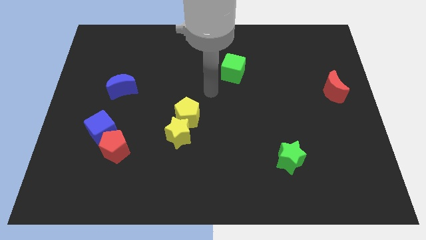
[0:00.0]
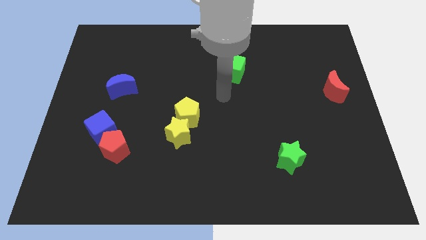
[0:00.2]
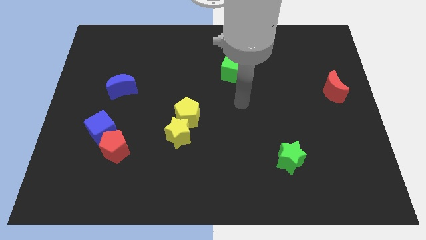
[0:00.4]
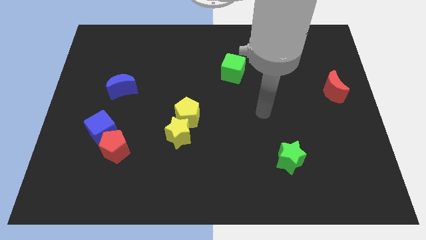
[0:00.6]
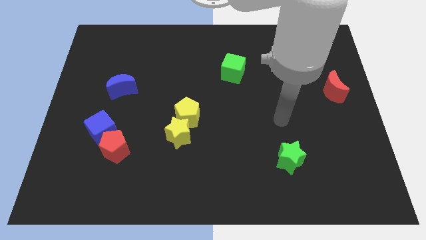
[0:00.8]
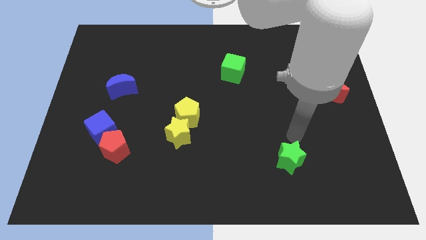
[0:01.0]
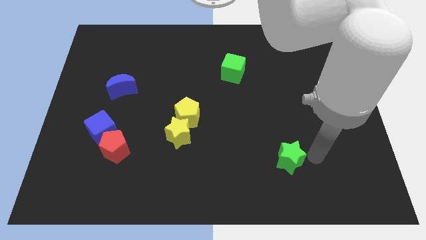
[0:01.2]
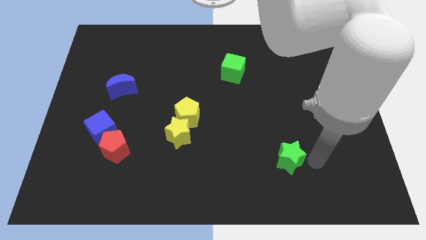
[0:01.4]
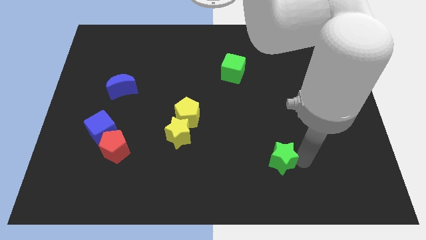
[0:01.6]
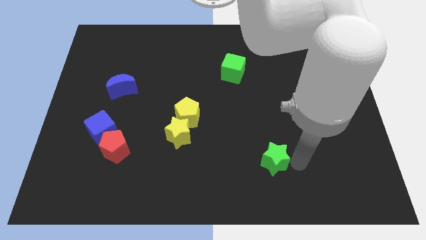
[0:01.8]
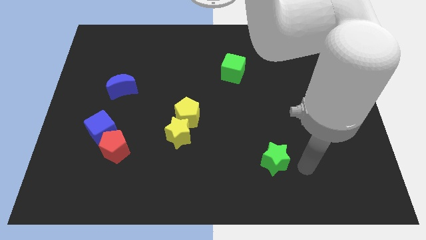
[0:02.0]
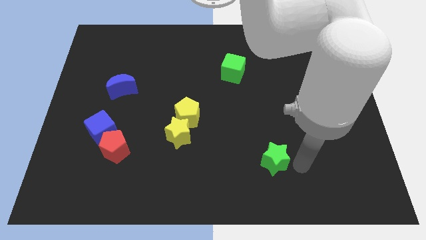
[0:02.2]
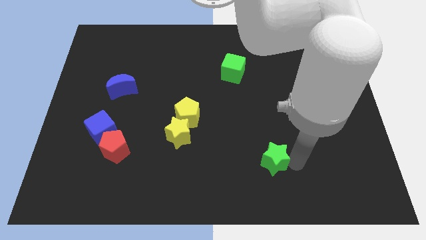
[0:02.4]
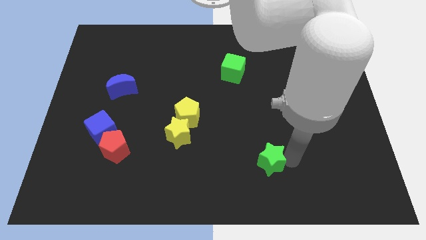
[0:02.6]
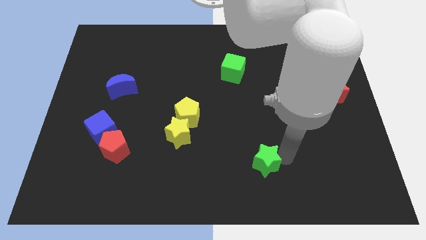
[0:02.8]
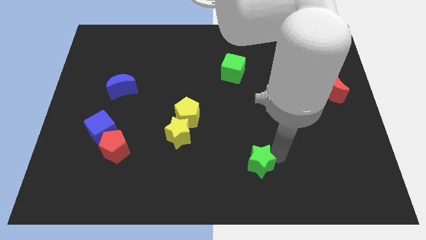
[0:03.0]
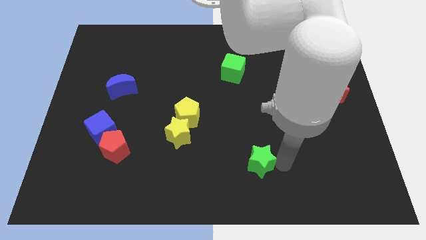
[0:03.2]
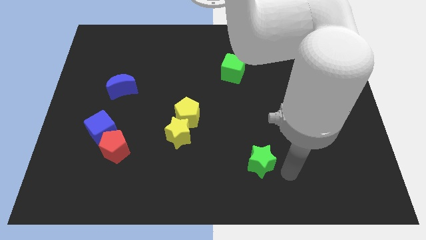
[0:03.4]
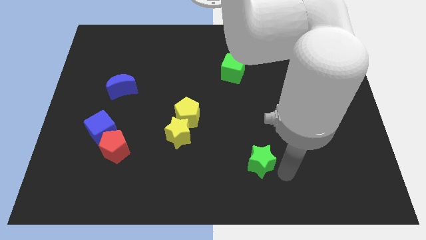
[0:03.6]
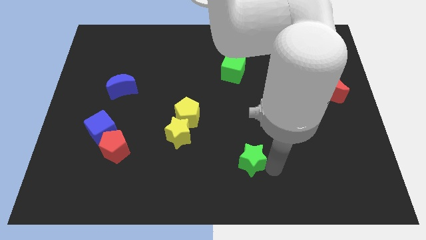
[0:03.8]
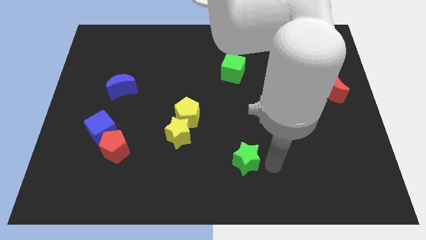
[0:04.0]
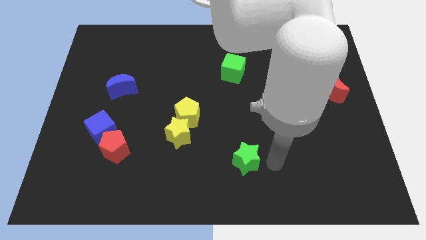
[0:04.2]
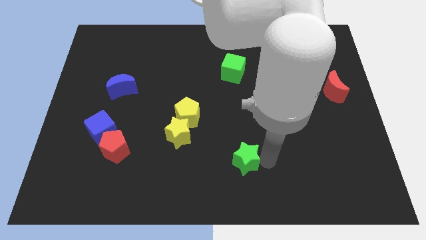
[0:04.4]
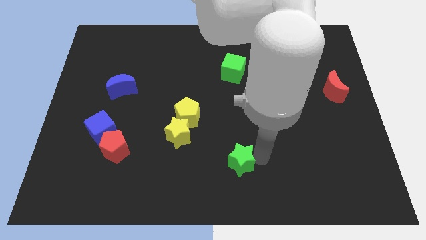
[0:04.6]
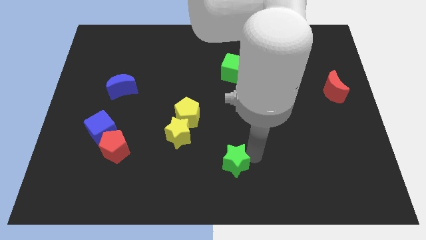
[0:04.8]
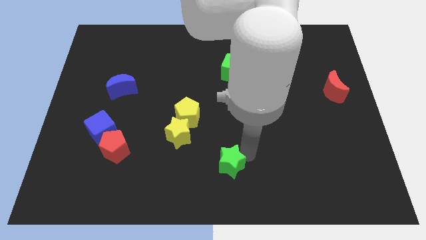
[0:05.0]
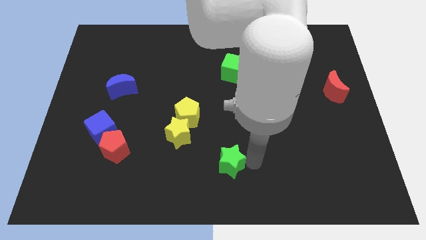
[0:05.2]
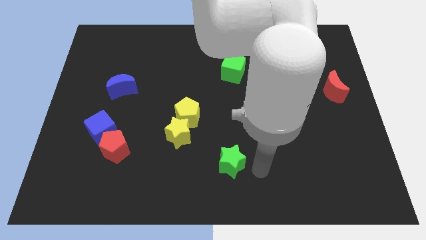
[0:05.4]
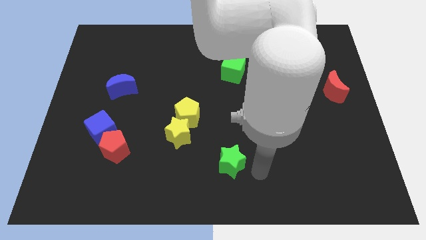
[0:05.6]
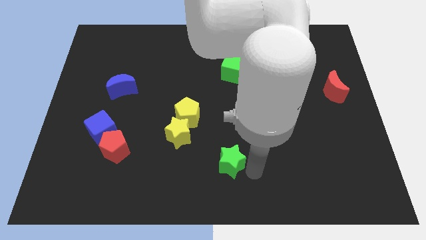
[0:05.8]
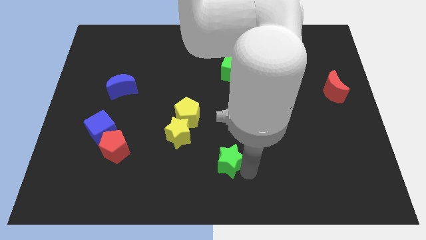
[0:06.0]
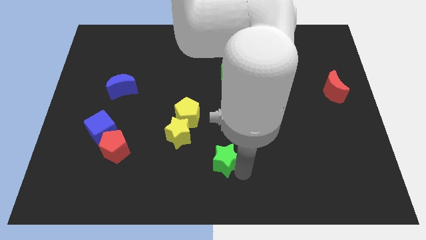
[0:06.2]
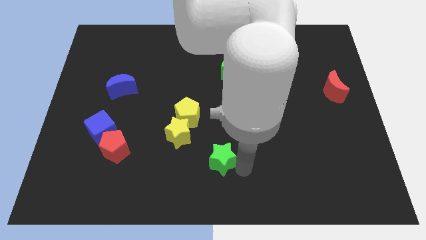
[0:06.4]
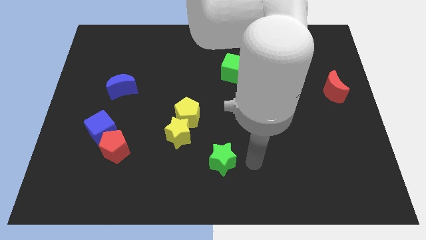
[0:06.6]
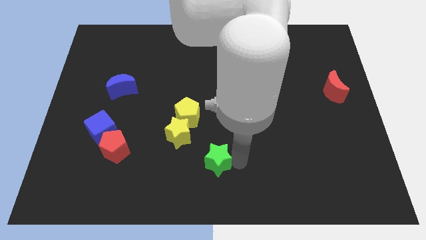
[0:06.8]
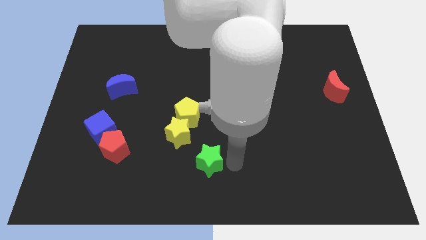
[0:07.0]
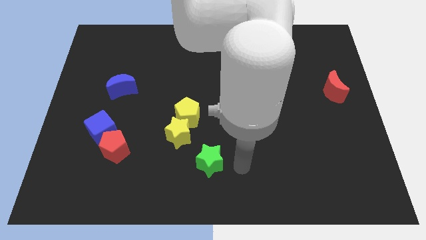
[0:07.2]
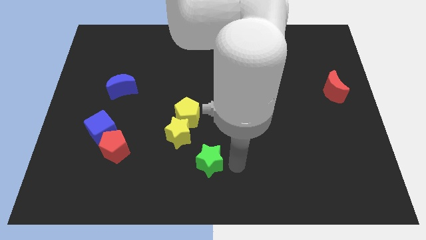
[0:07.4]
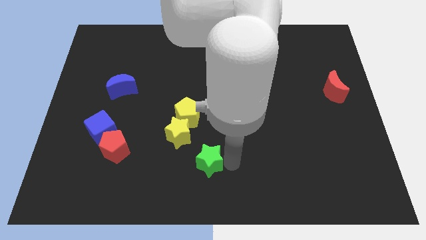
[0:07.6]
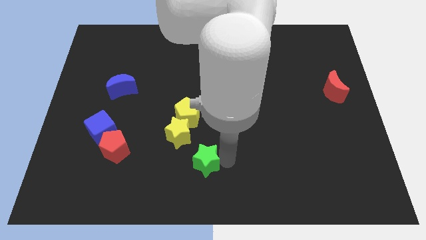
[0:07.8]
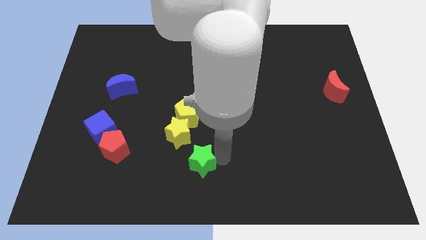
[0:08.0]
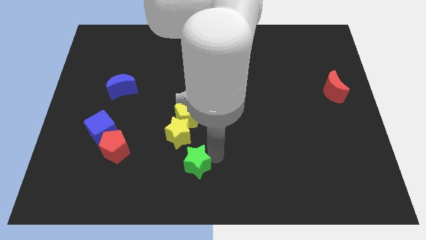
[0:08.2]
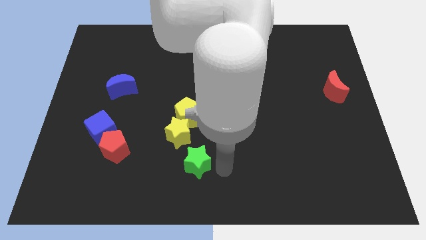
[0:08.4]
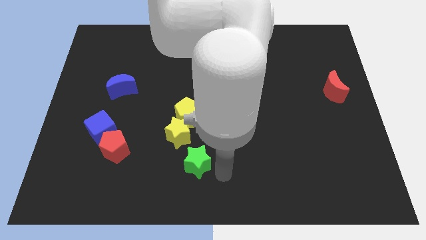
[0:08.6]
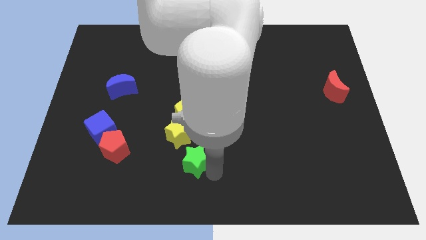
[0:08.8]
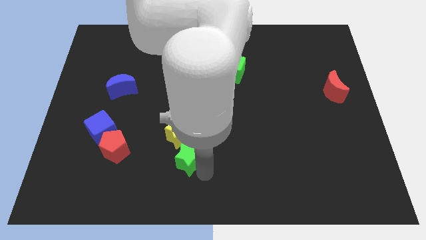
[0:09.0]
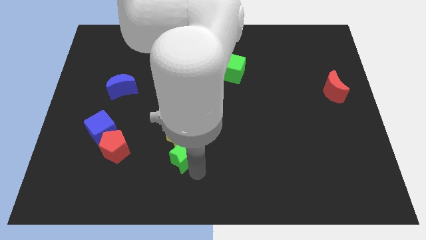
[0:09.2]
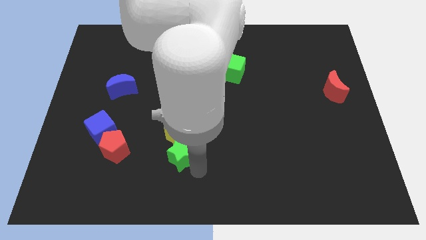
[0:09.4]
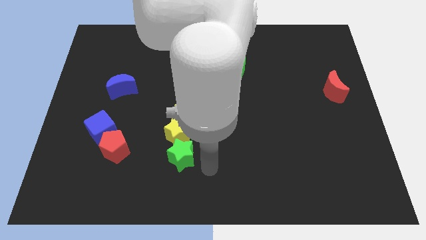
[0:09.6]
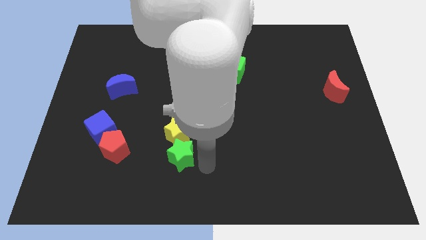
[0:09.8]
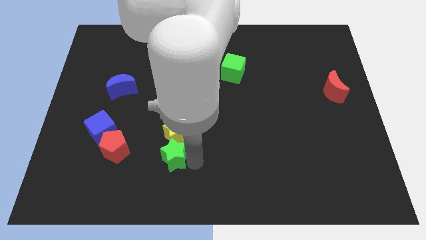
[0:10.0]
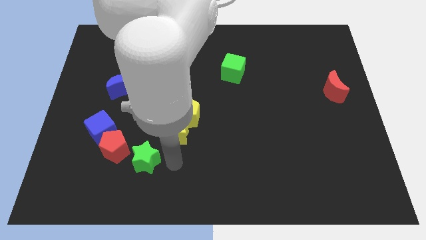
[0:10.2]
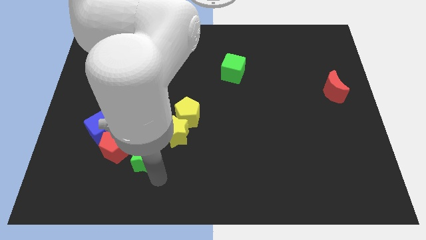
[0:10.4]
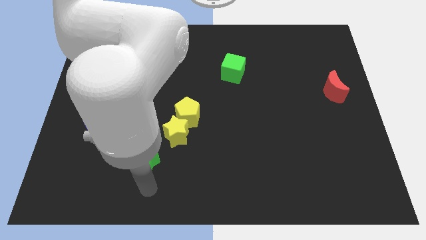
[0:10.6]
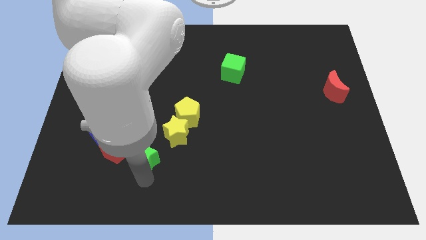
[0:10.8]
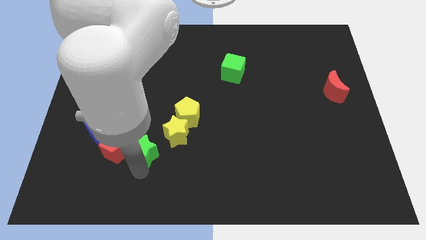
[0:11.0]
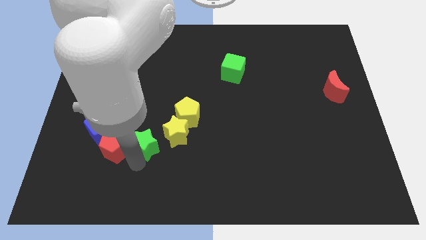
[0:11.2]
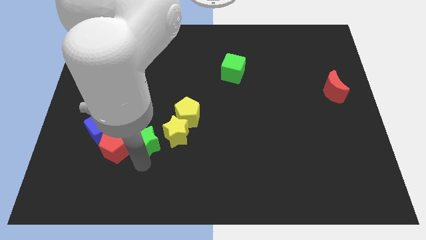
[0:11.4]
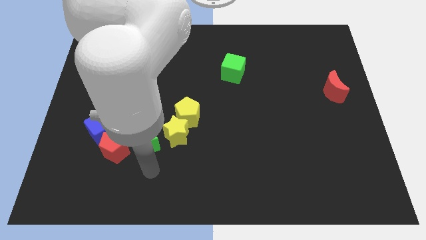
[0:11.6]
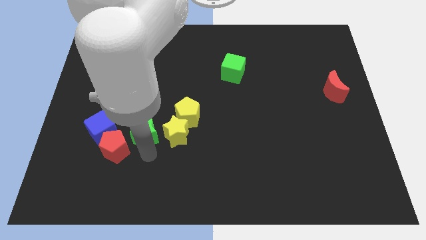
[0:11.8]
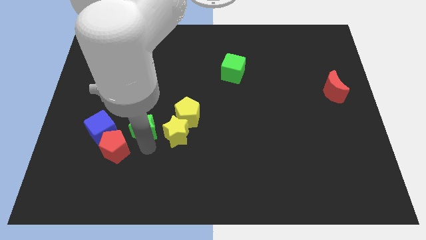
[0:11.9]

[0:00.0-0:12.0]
move the green star to the left of the yellow pentagon

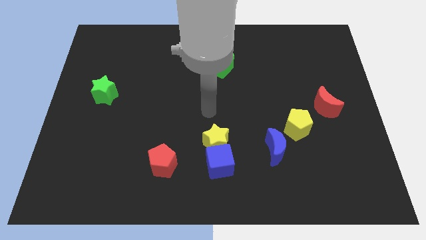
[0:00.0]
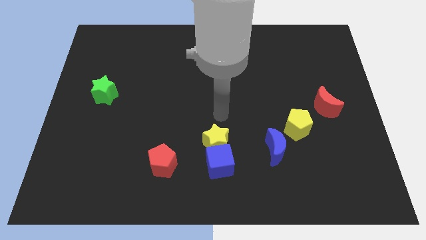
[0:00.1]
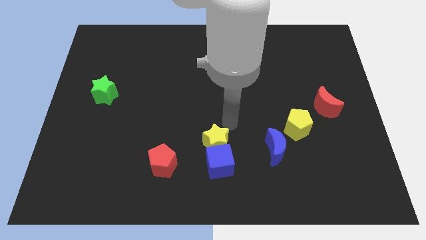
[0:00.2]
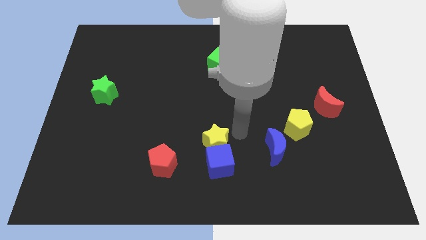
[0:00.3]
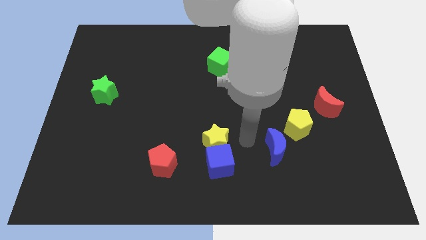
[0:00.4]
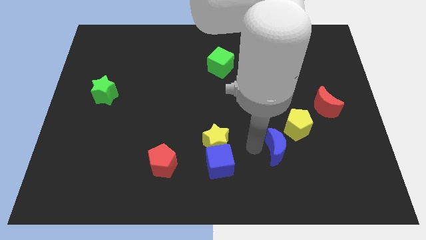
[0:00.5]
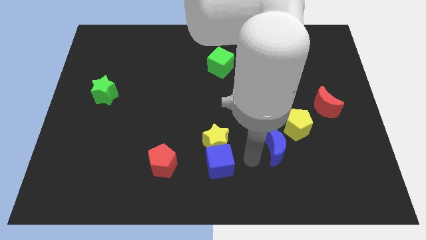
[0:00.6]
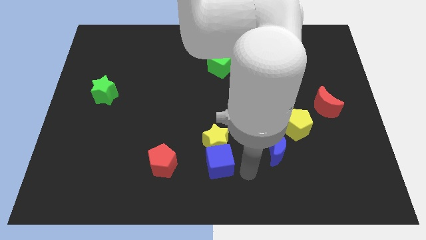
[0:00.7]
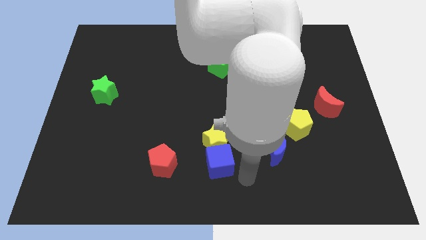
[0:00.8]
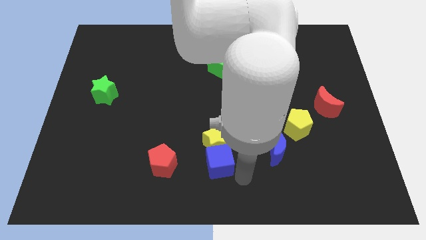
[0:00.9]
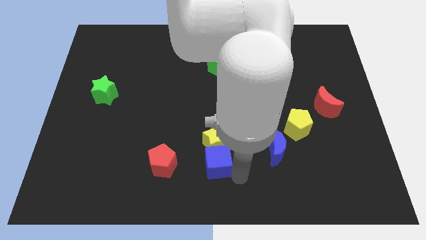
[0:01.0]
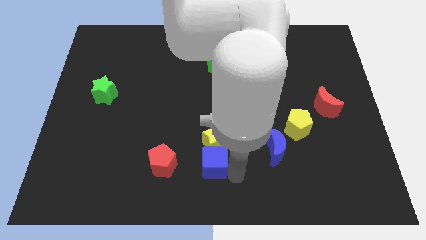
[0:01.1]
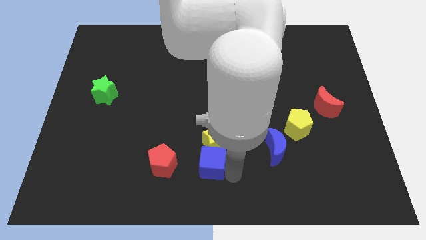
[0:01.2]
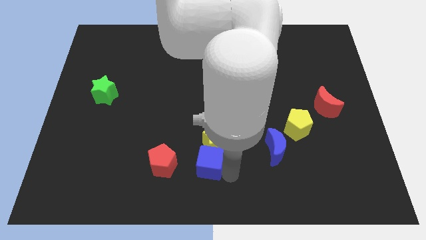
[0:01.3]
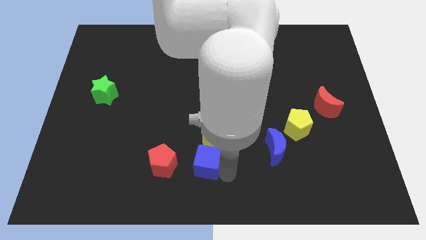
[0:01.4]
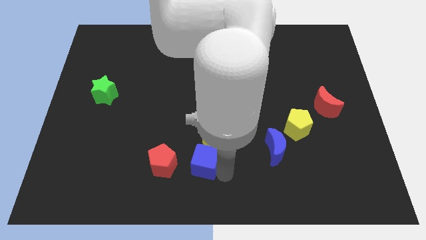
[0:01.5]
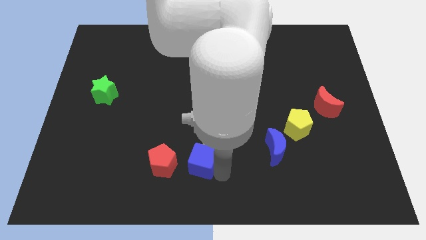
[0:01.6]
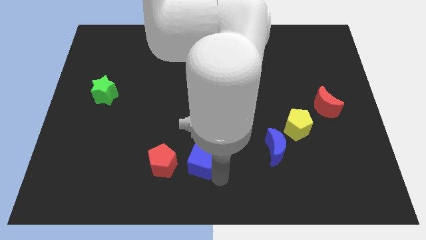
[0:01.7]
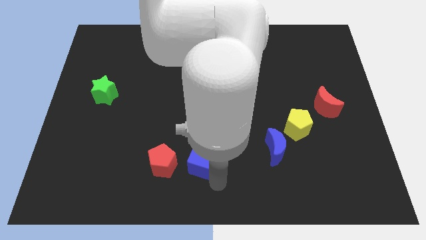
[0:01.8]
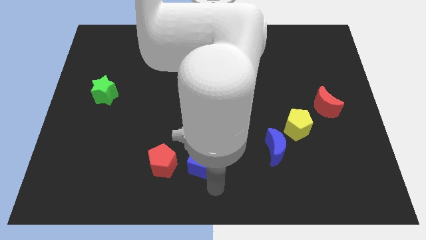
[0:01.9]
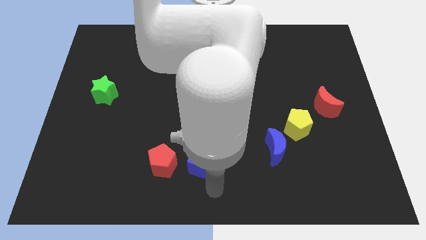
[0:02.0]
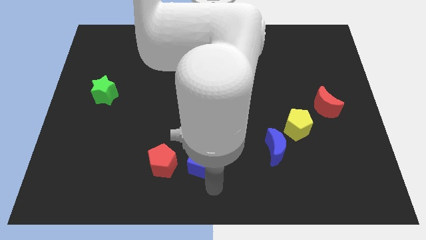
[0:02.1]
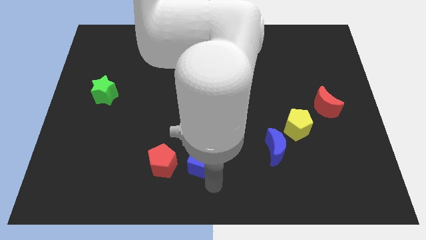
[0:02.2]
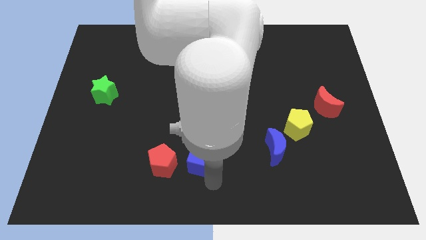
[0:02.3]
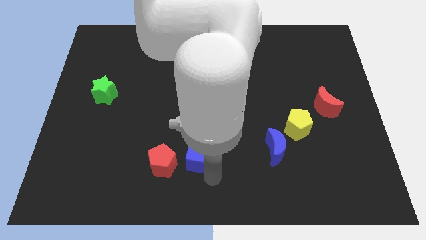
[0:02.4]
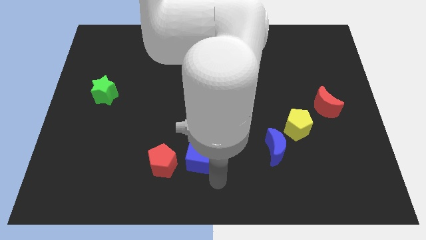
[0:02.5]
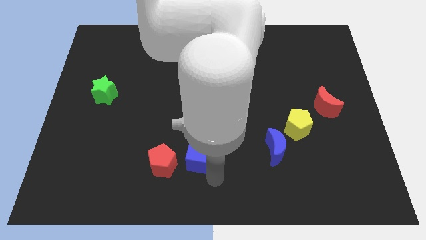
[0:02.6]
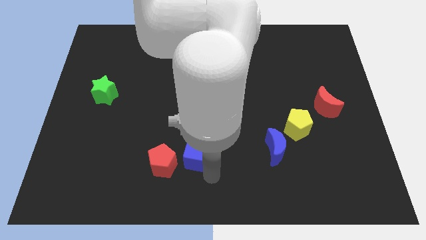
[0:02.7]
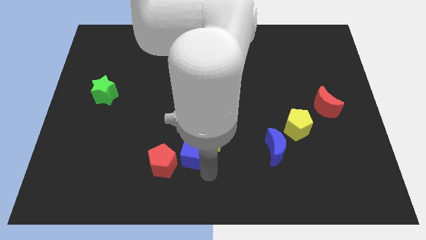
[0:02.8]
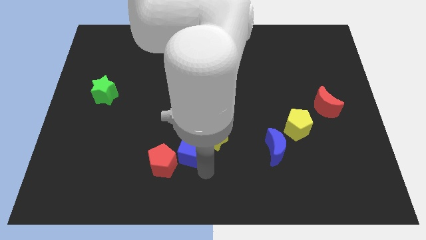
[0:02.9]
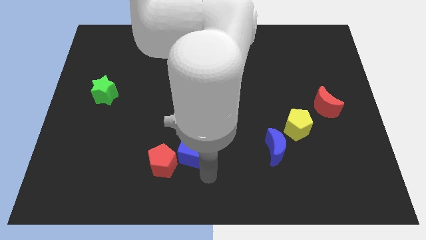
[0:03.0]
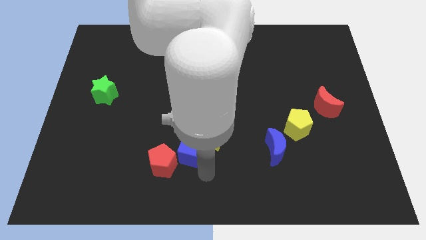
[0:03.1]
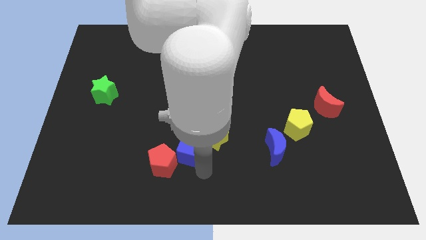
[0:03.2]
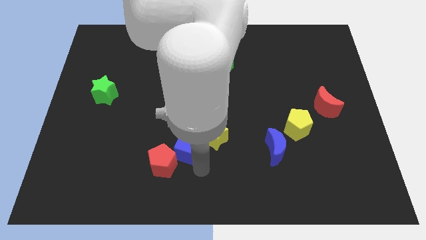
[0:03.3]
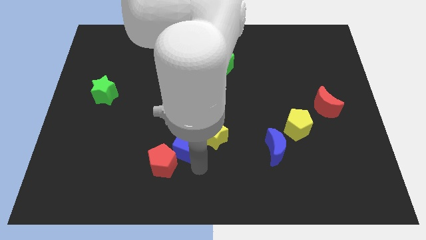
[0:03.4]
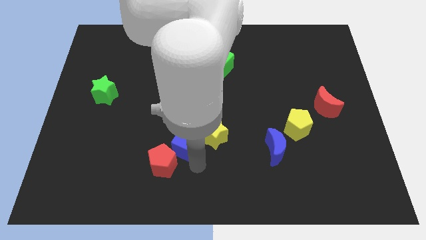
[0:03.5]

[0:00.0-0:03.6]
push the blue cube above the red pentagon
